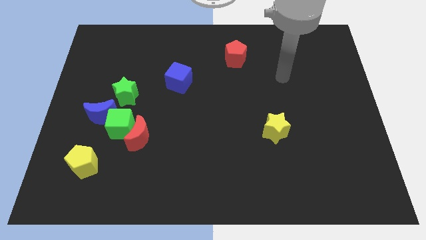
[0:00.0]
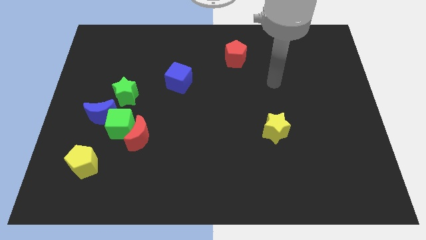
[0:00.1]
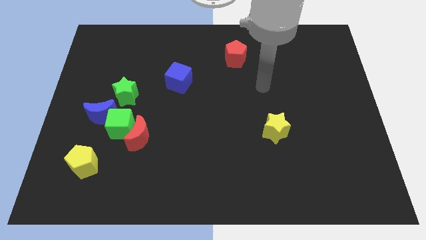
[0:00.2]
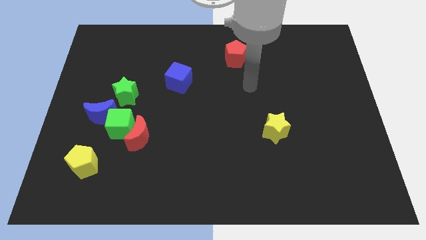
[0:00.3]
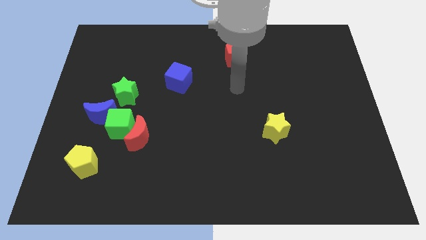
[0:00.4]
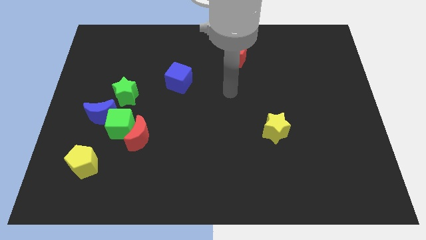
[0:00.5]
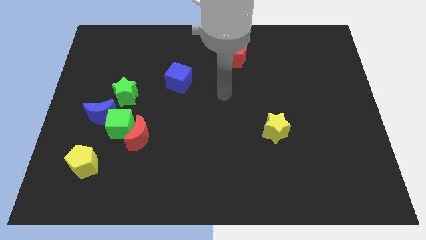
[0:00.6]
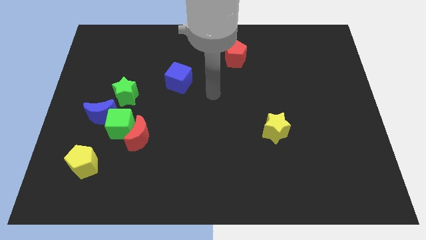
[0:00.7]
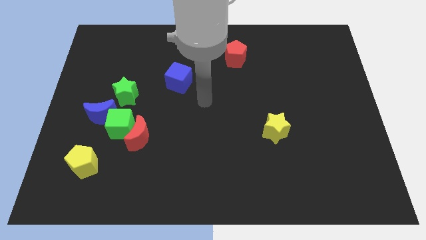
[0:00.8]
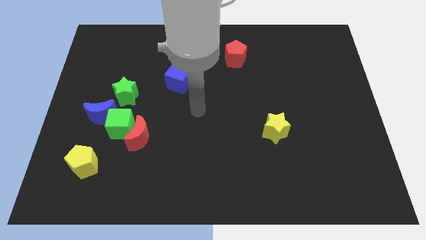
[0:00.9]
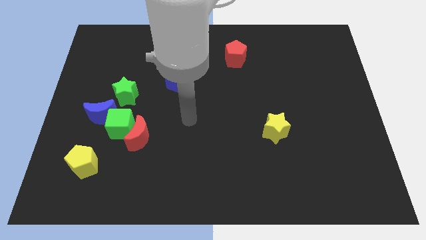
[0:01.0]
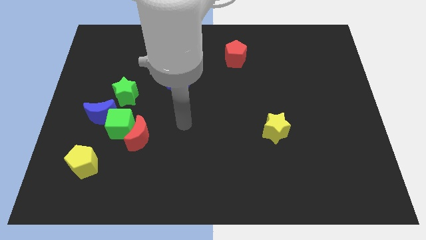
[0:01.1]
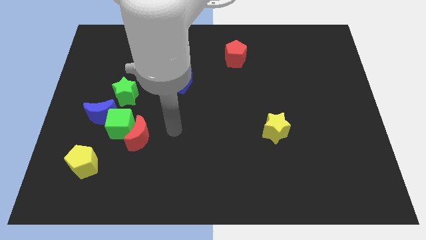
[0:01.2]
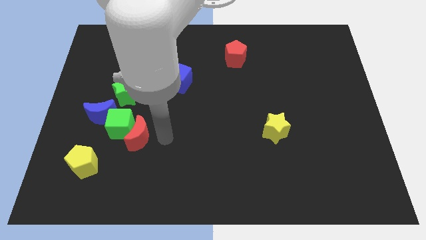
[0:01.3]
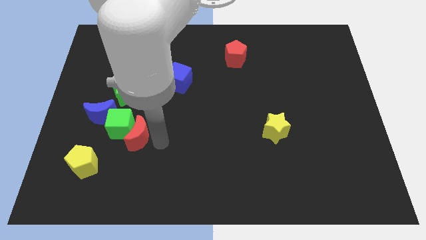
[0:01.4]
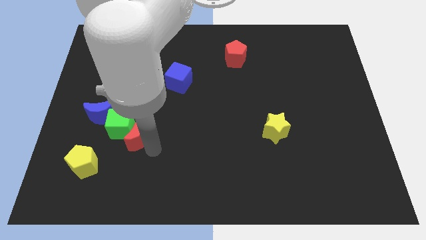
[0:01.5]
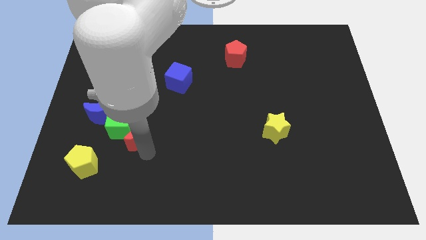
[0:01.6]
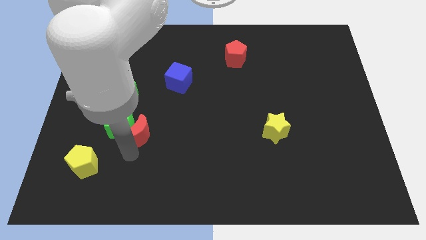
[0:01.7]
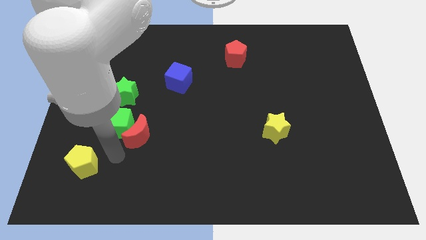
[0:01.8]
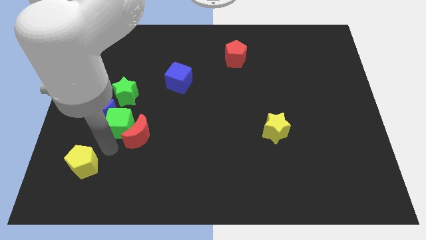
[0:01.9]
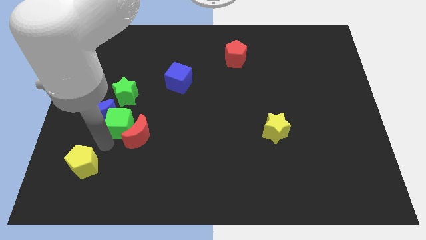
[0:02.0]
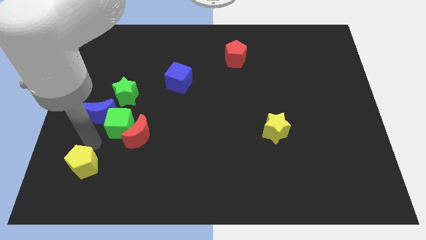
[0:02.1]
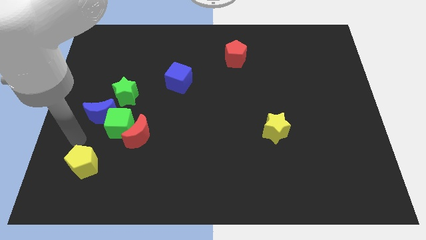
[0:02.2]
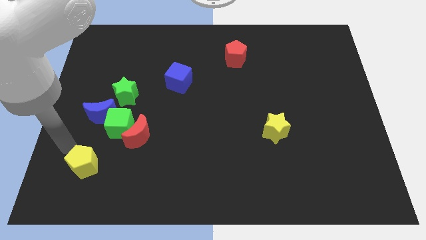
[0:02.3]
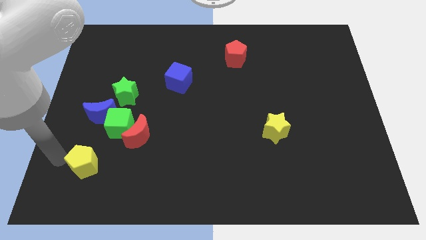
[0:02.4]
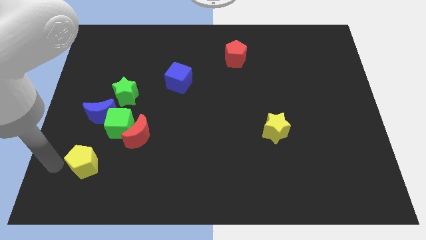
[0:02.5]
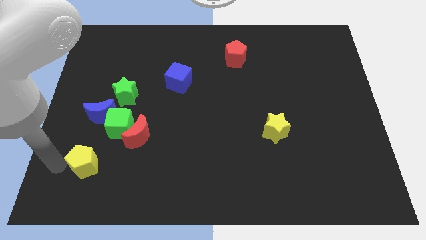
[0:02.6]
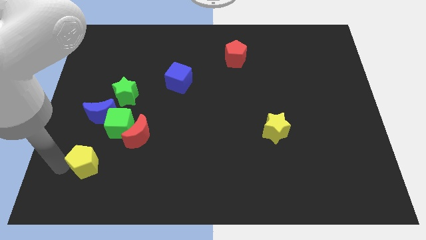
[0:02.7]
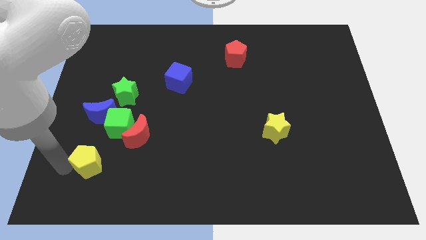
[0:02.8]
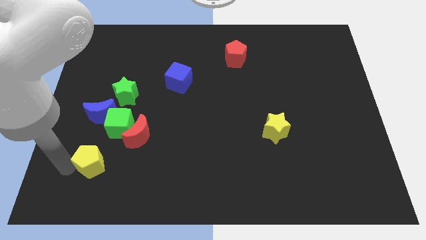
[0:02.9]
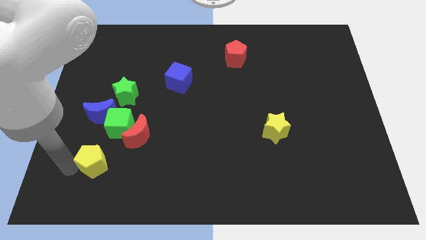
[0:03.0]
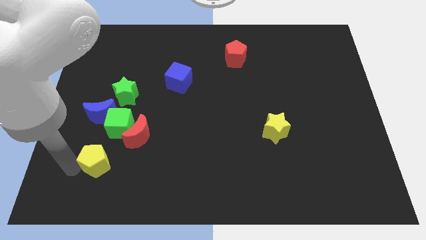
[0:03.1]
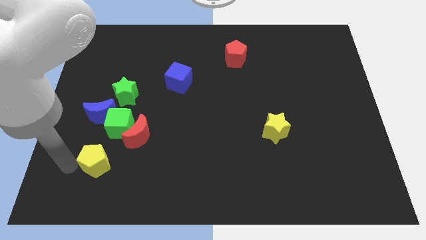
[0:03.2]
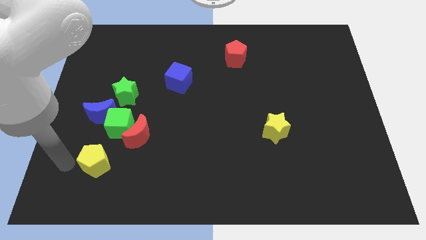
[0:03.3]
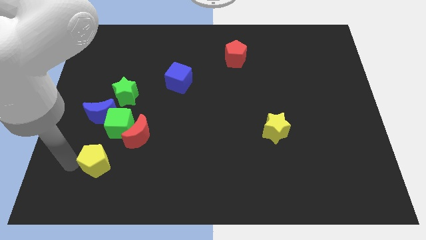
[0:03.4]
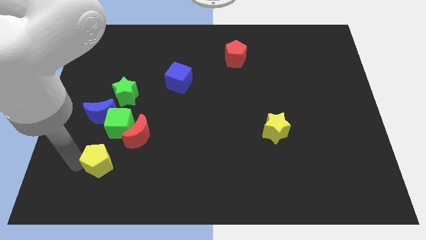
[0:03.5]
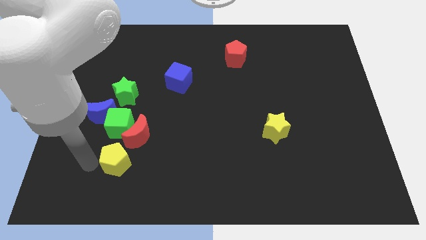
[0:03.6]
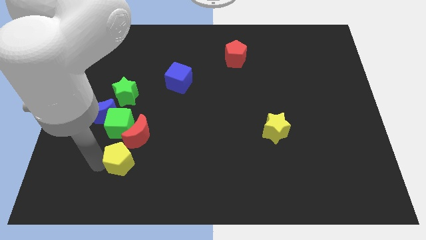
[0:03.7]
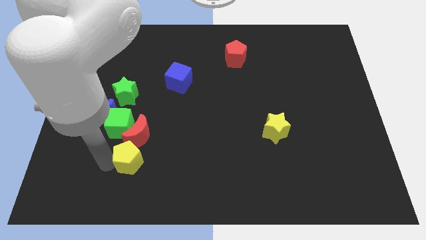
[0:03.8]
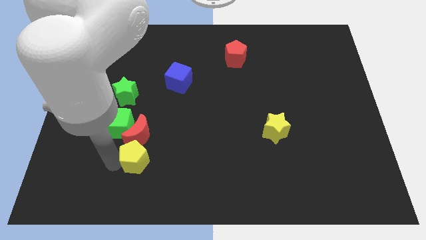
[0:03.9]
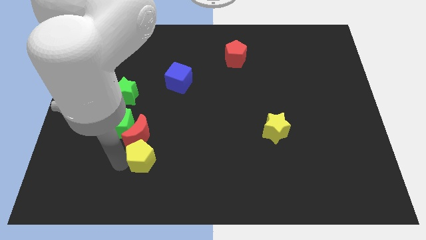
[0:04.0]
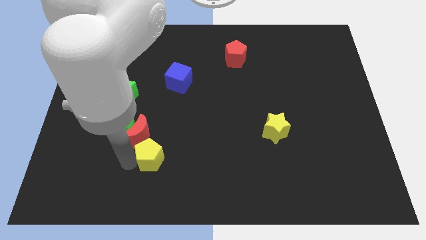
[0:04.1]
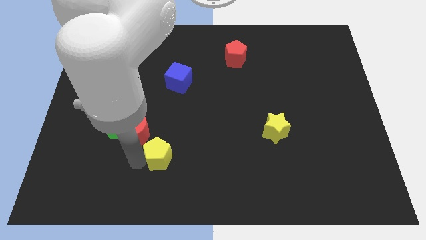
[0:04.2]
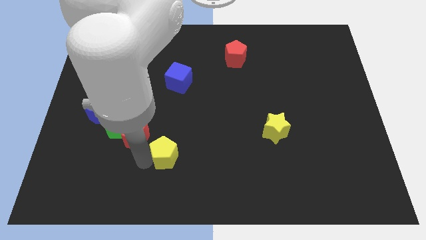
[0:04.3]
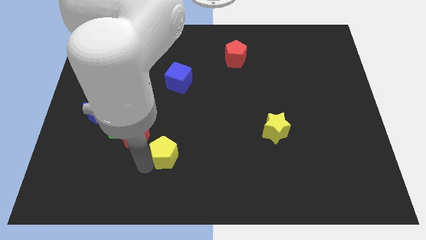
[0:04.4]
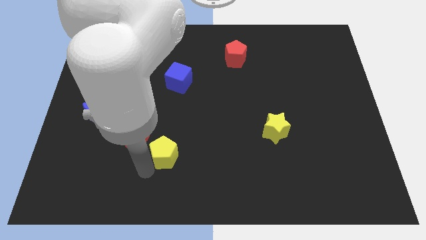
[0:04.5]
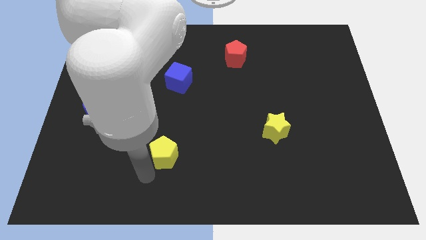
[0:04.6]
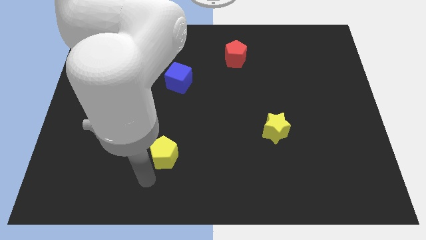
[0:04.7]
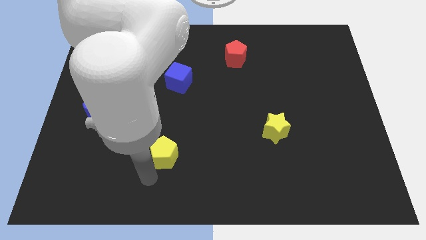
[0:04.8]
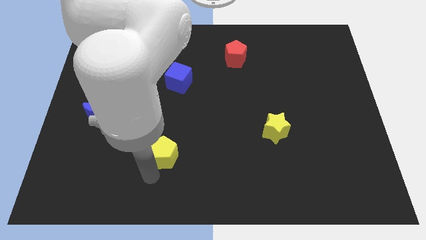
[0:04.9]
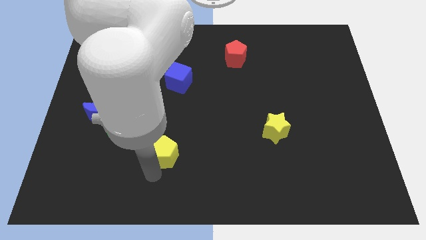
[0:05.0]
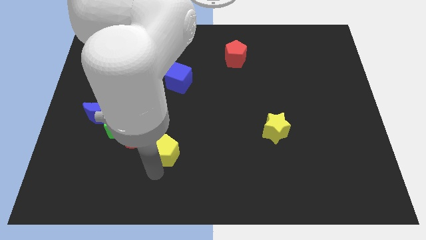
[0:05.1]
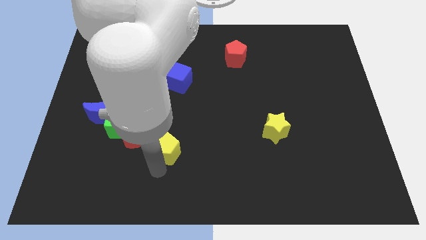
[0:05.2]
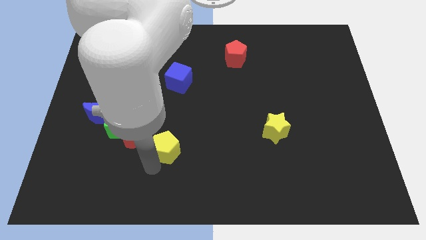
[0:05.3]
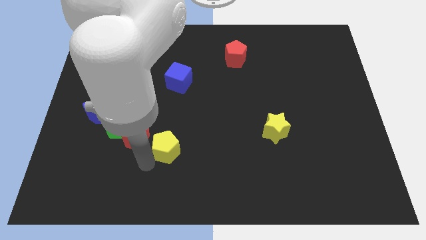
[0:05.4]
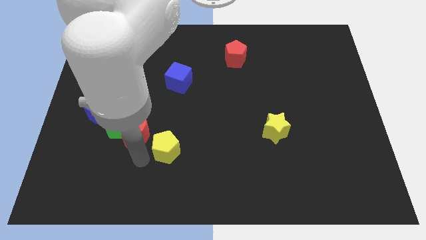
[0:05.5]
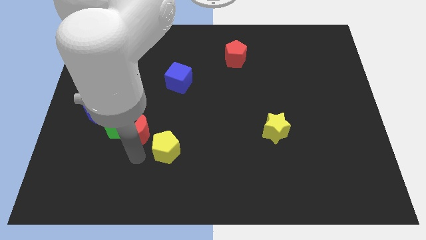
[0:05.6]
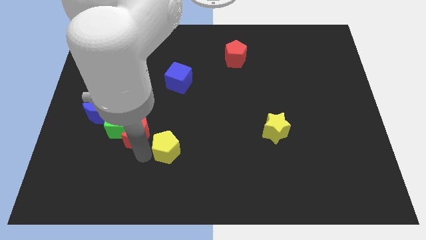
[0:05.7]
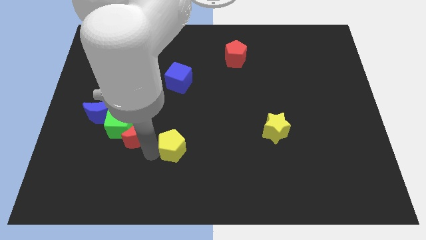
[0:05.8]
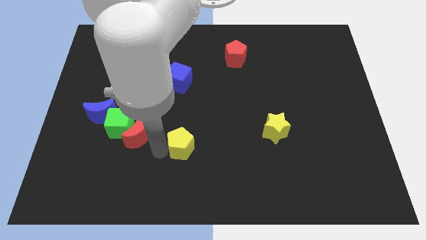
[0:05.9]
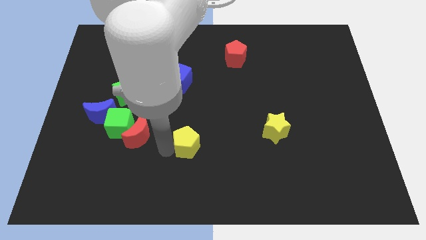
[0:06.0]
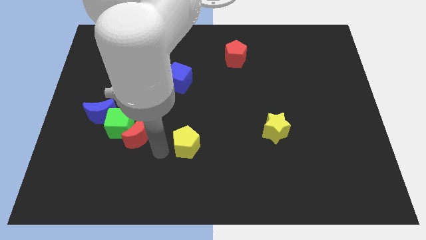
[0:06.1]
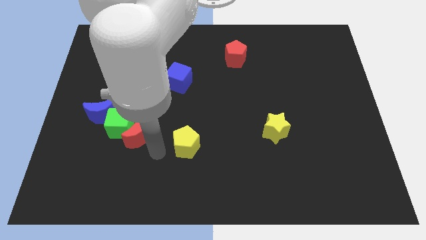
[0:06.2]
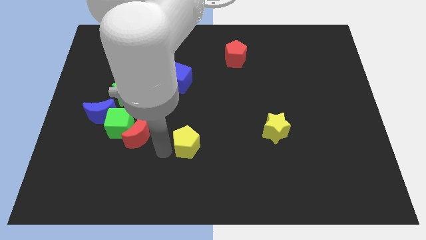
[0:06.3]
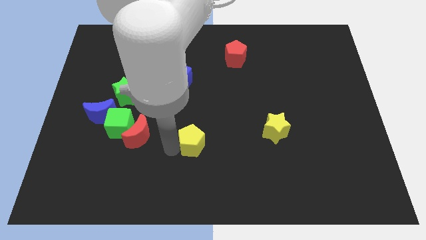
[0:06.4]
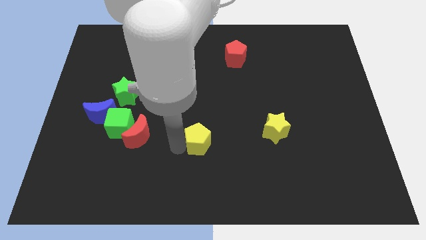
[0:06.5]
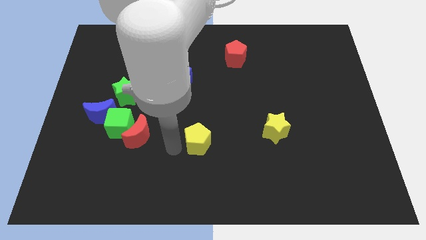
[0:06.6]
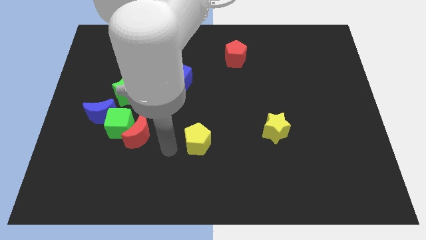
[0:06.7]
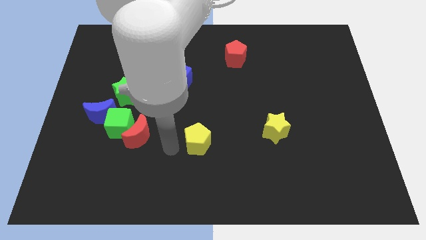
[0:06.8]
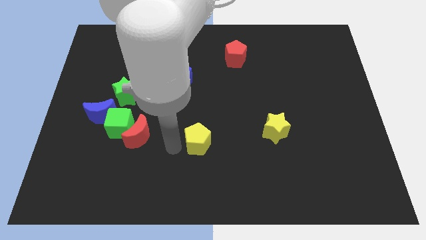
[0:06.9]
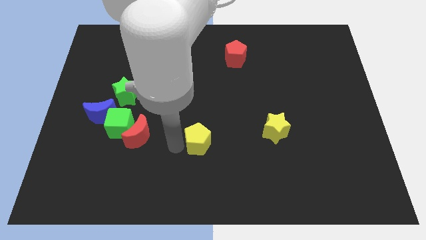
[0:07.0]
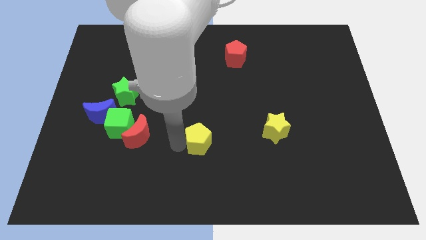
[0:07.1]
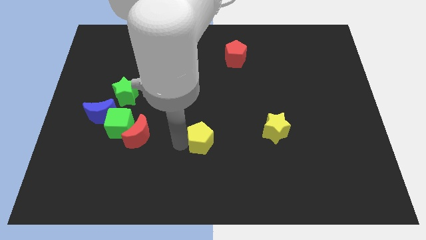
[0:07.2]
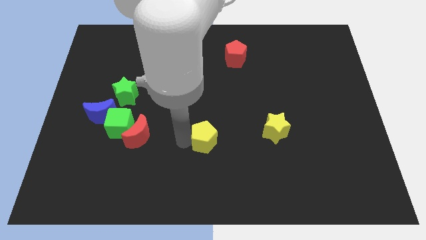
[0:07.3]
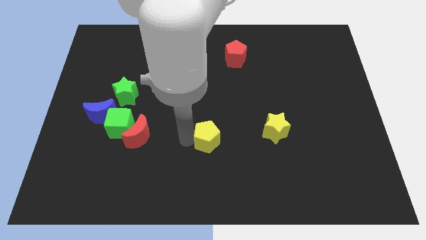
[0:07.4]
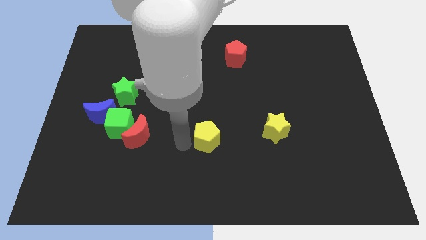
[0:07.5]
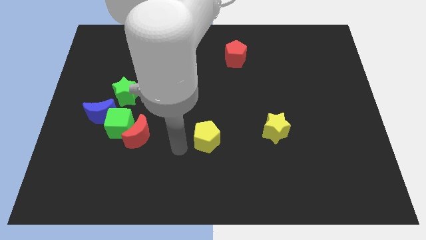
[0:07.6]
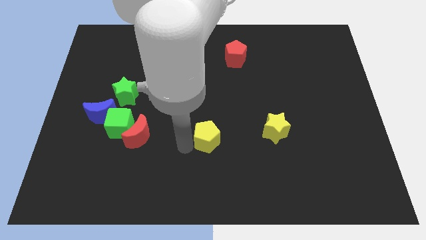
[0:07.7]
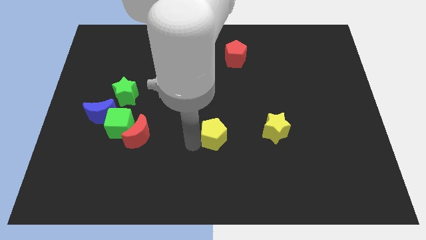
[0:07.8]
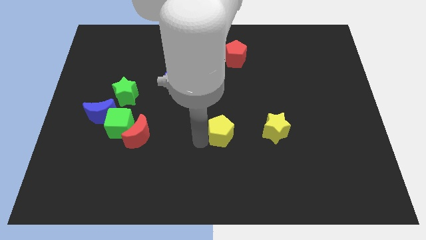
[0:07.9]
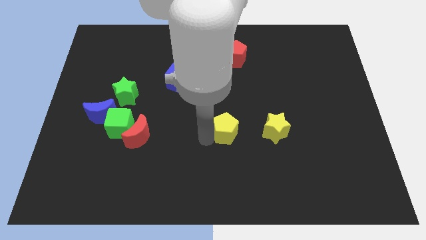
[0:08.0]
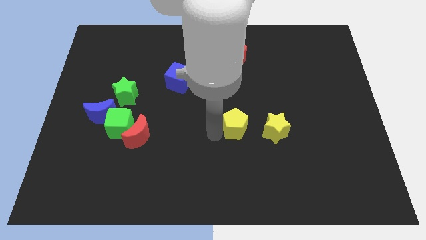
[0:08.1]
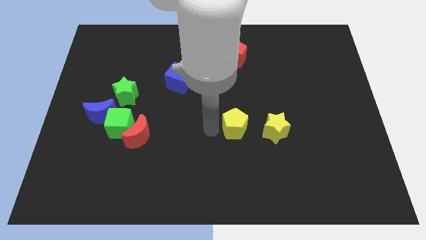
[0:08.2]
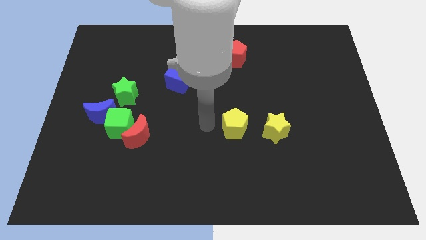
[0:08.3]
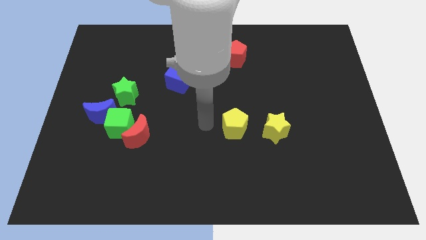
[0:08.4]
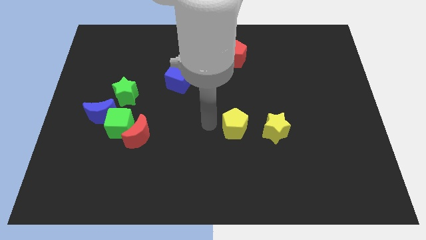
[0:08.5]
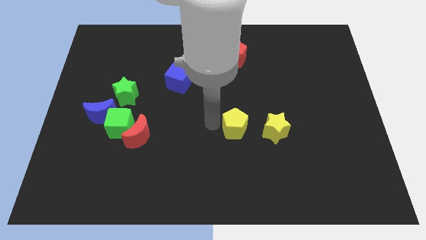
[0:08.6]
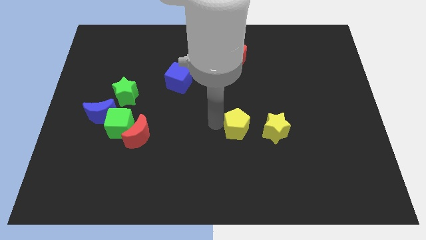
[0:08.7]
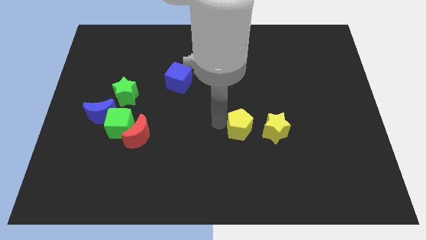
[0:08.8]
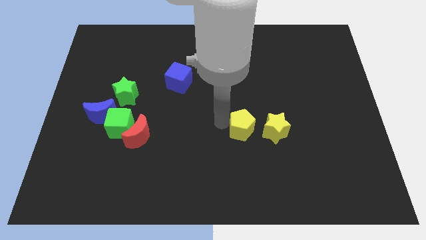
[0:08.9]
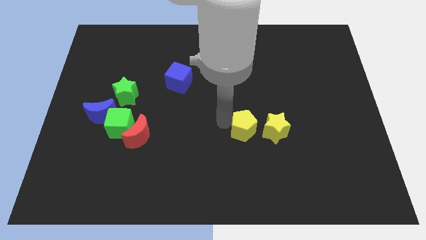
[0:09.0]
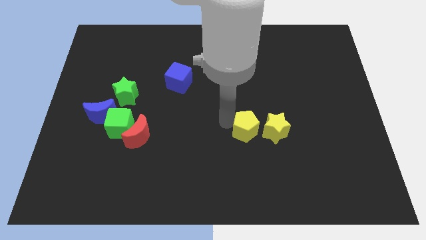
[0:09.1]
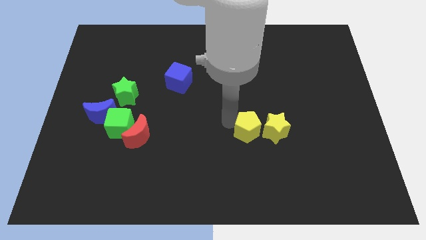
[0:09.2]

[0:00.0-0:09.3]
put the yellow pentagon close to the yellow star
